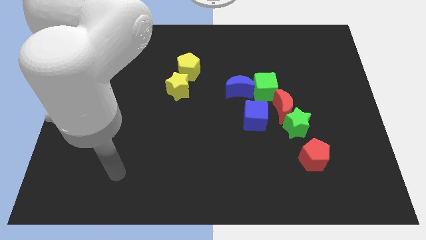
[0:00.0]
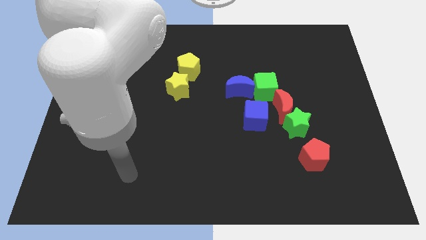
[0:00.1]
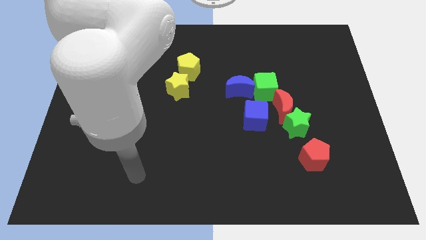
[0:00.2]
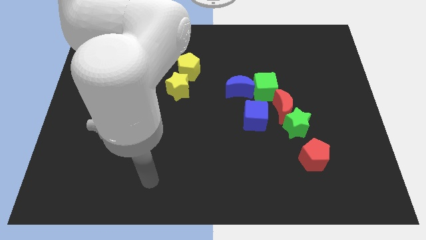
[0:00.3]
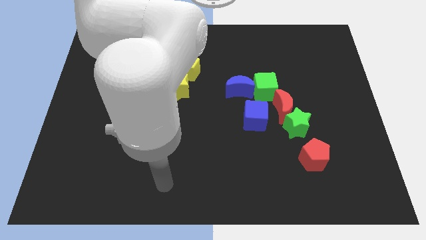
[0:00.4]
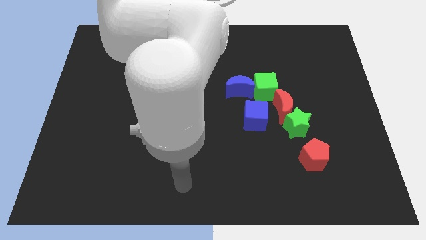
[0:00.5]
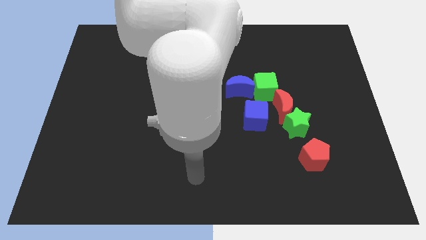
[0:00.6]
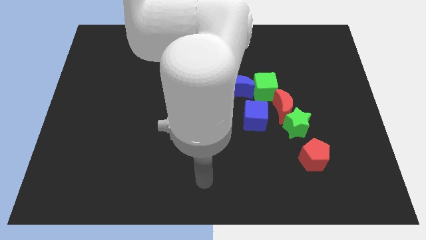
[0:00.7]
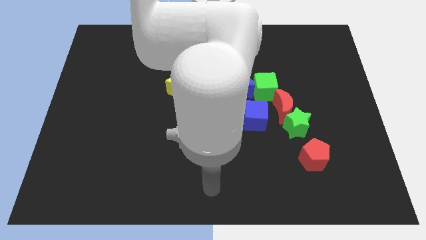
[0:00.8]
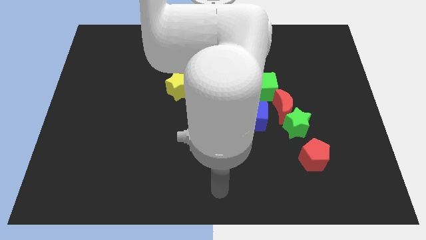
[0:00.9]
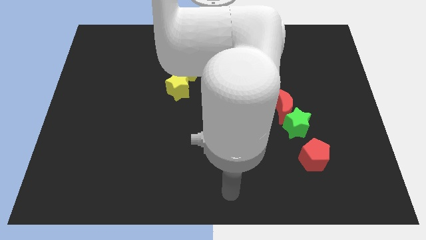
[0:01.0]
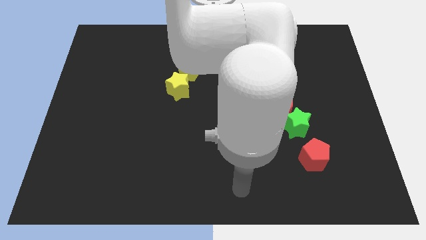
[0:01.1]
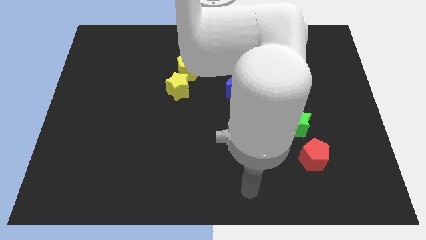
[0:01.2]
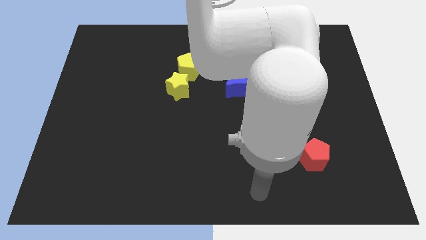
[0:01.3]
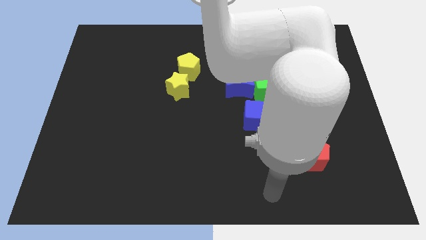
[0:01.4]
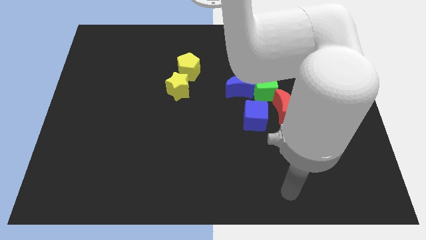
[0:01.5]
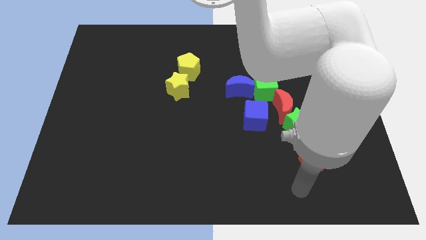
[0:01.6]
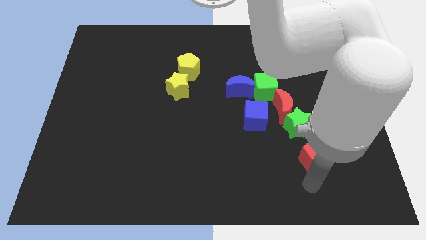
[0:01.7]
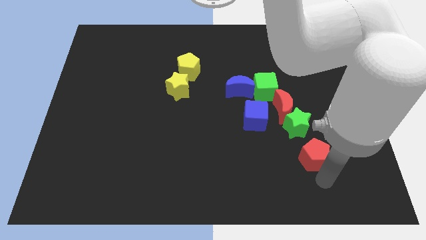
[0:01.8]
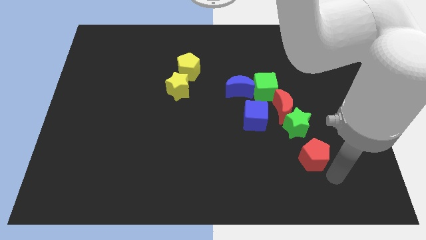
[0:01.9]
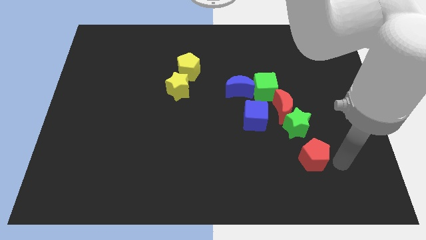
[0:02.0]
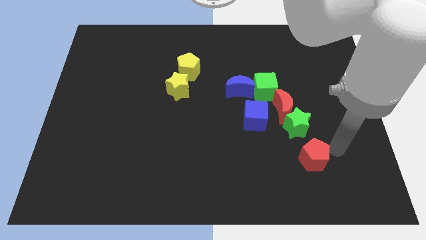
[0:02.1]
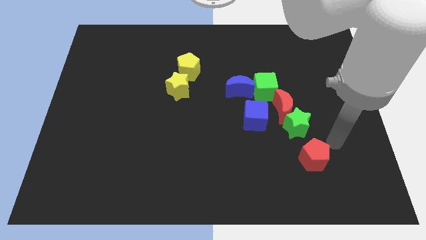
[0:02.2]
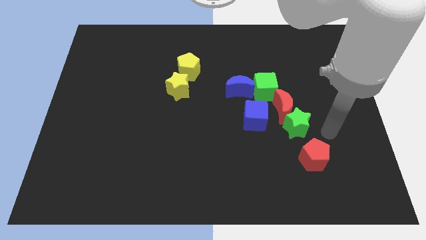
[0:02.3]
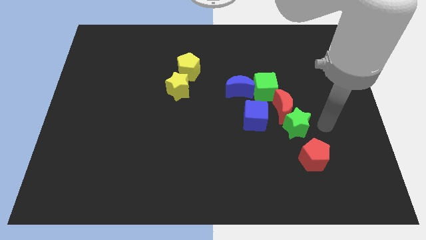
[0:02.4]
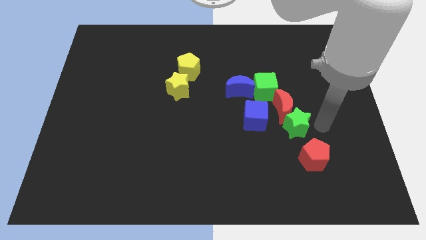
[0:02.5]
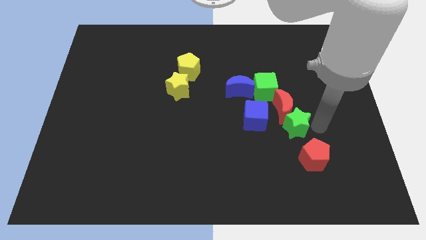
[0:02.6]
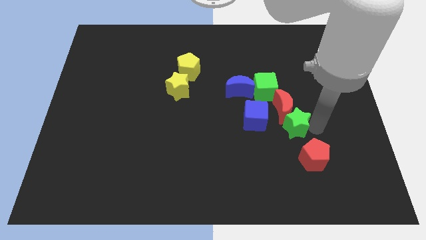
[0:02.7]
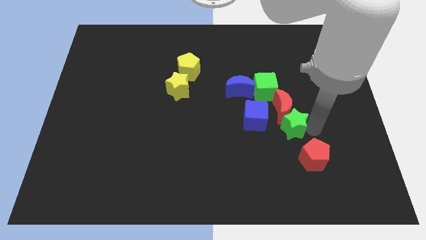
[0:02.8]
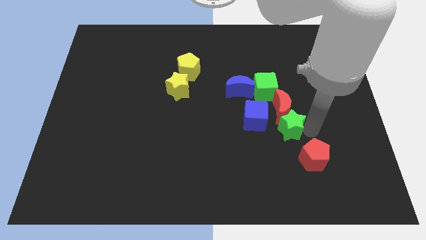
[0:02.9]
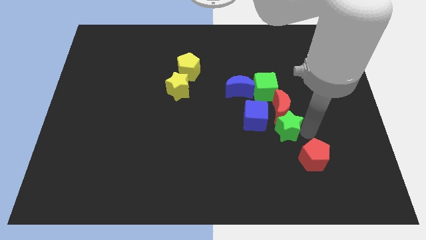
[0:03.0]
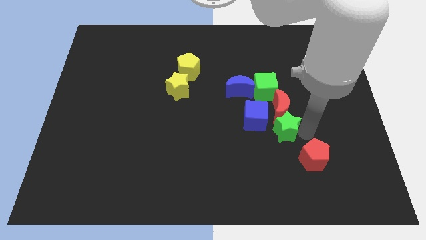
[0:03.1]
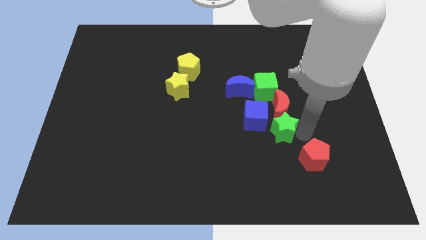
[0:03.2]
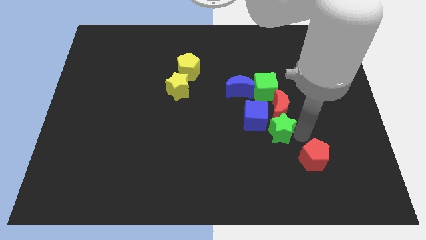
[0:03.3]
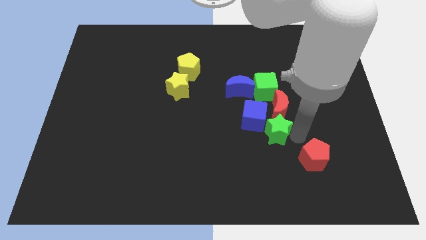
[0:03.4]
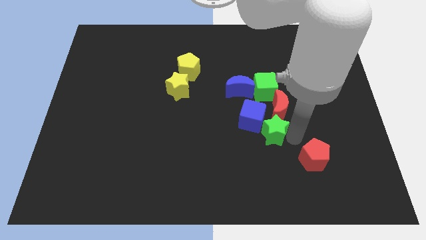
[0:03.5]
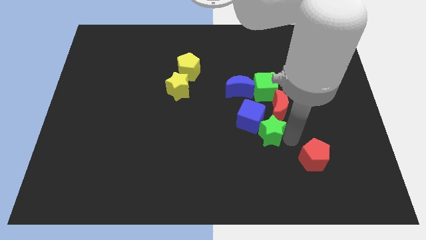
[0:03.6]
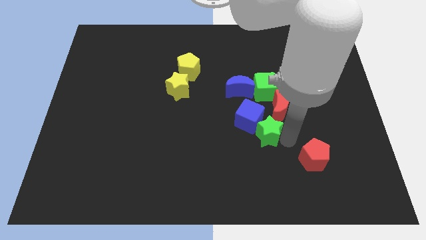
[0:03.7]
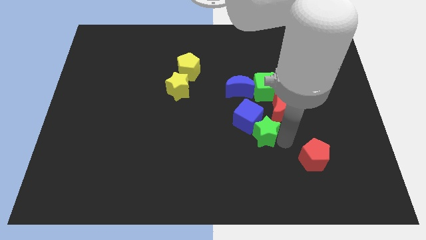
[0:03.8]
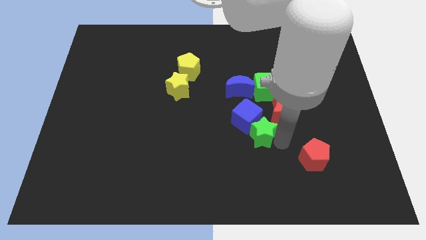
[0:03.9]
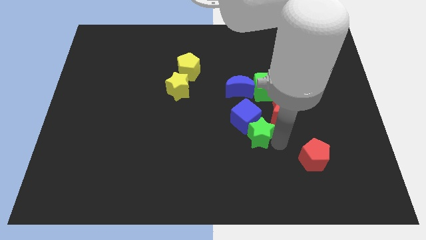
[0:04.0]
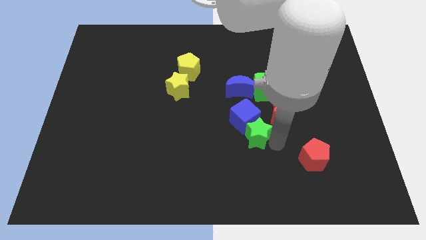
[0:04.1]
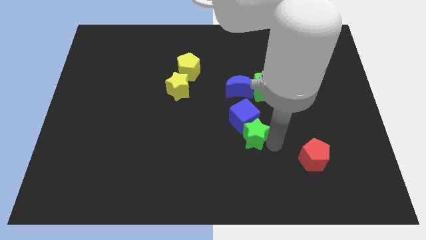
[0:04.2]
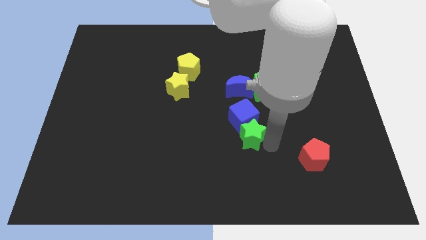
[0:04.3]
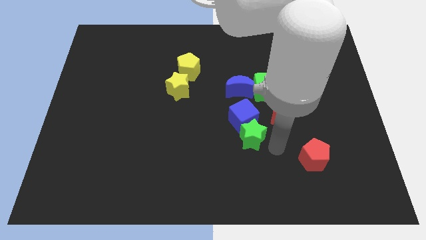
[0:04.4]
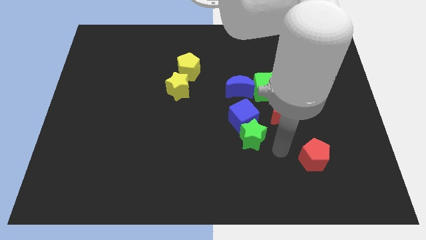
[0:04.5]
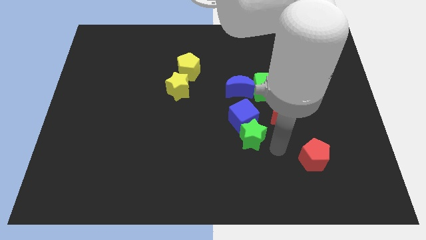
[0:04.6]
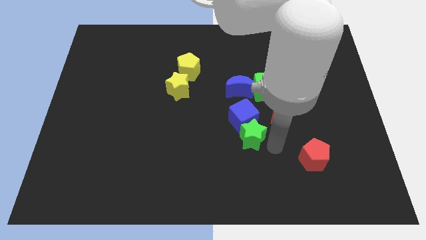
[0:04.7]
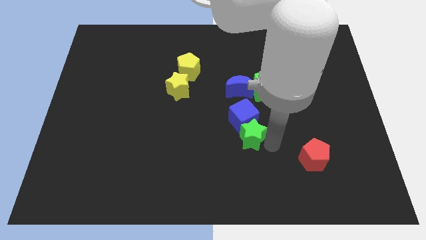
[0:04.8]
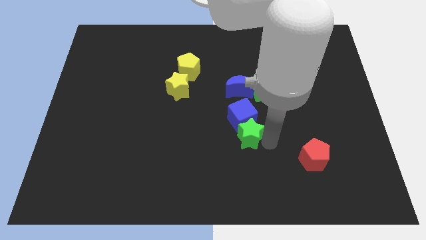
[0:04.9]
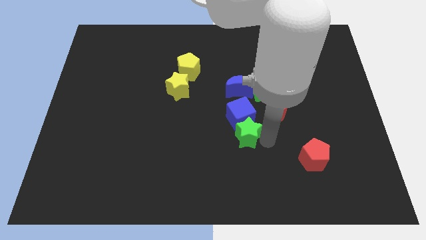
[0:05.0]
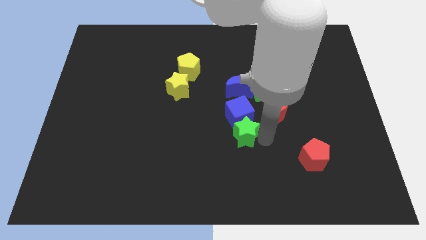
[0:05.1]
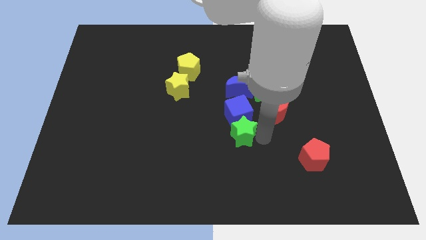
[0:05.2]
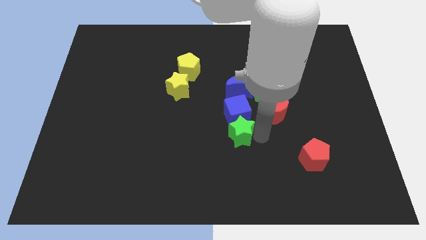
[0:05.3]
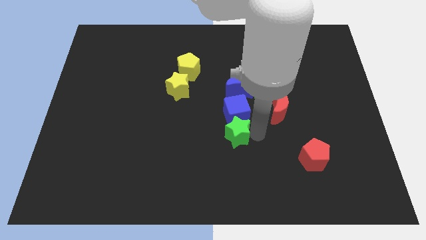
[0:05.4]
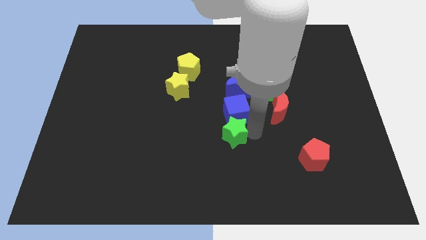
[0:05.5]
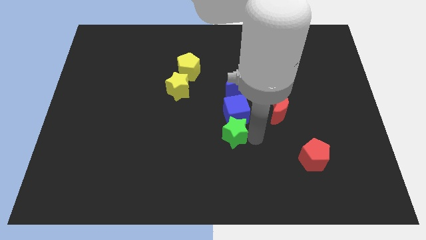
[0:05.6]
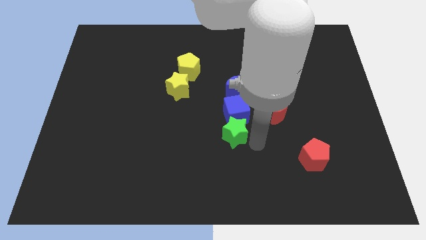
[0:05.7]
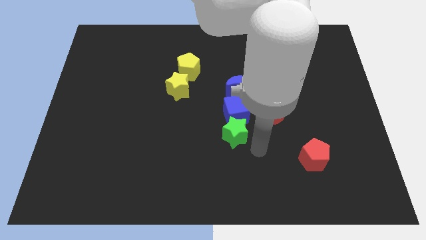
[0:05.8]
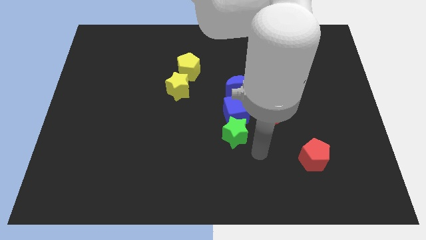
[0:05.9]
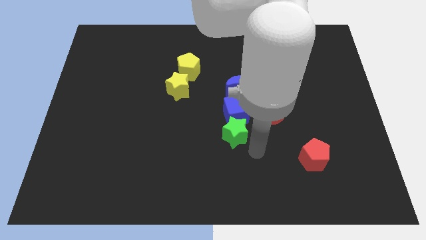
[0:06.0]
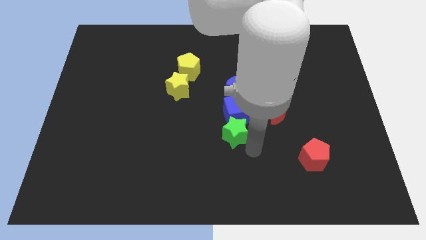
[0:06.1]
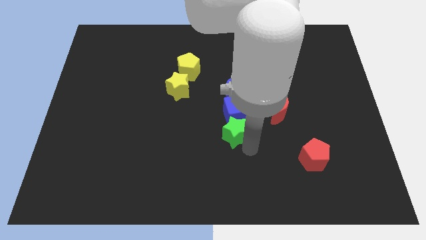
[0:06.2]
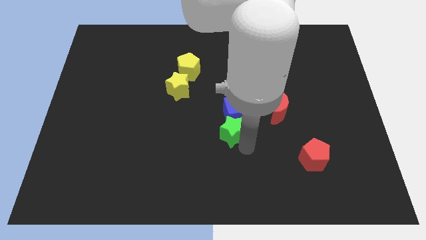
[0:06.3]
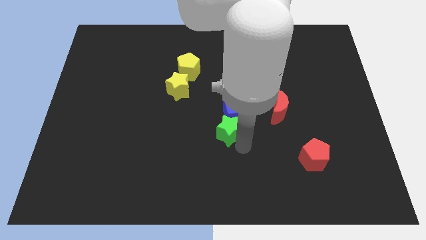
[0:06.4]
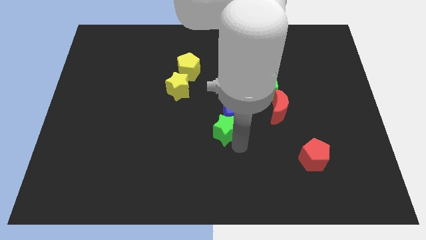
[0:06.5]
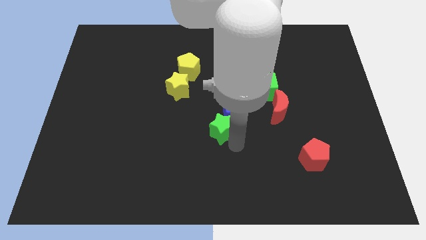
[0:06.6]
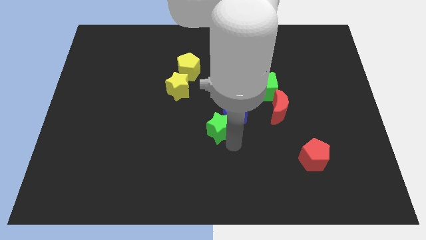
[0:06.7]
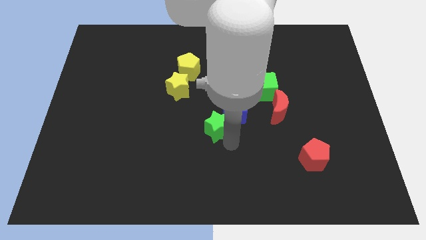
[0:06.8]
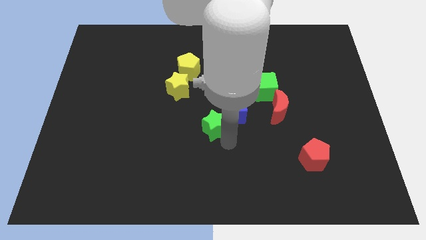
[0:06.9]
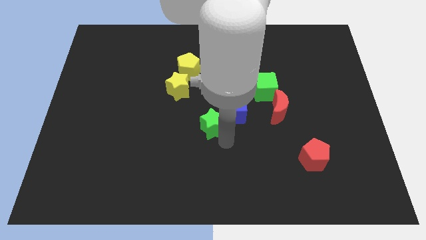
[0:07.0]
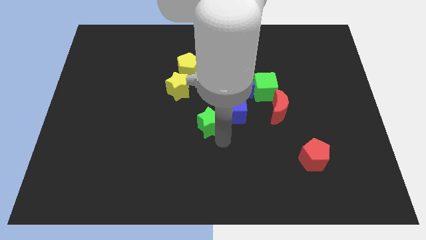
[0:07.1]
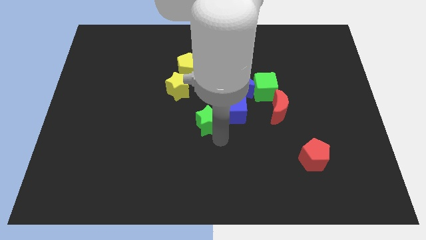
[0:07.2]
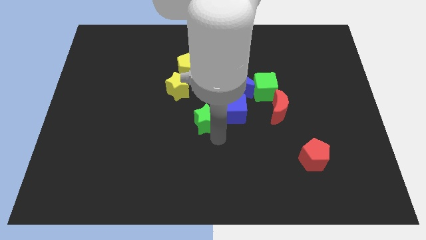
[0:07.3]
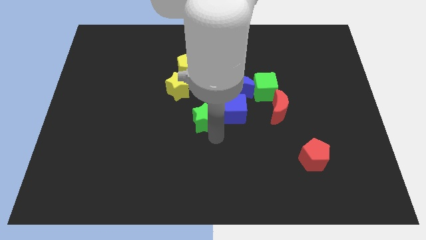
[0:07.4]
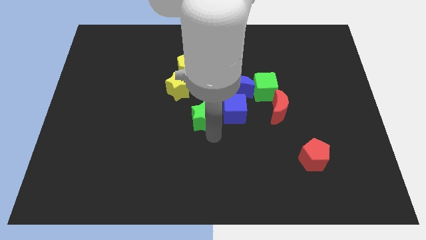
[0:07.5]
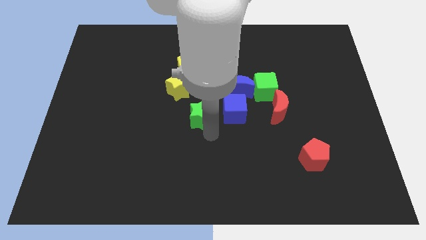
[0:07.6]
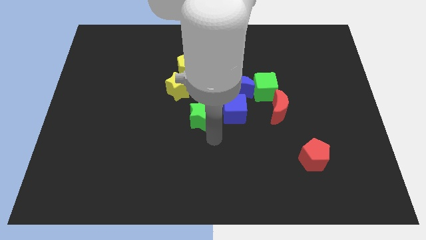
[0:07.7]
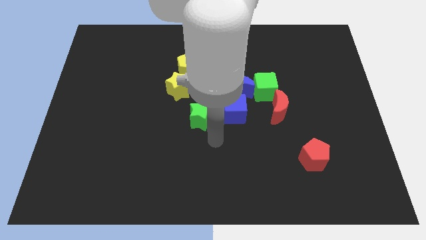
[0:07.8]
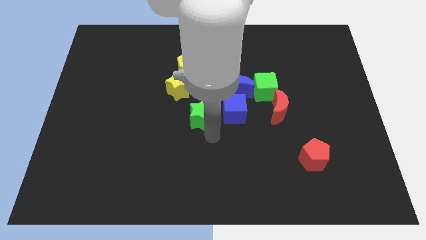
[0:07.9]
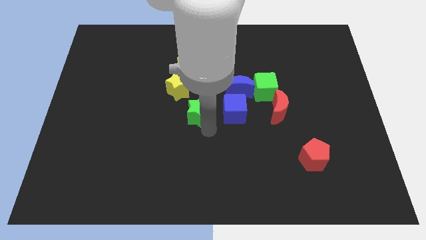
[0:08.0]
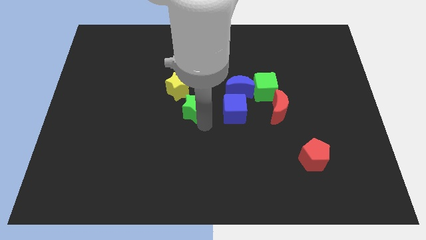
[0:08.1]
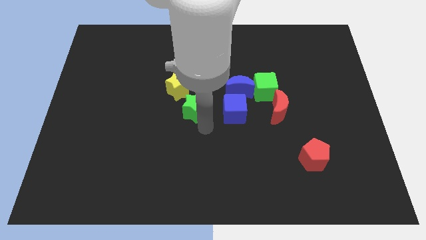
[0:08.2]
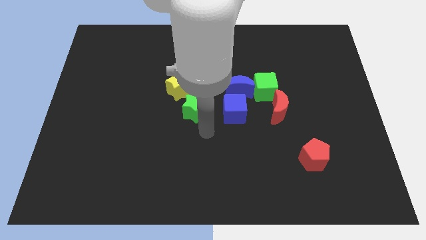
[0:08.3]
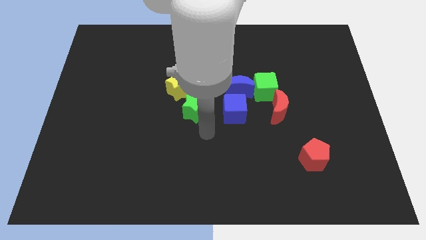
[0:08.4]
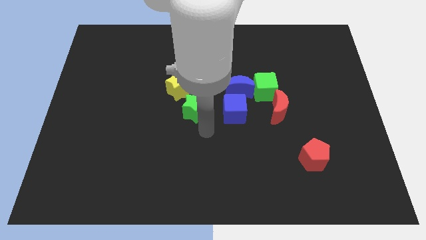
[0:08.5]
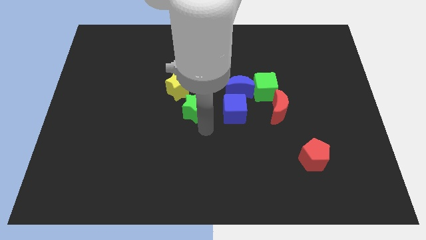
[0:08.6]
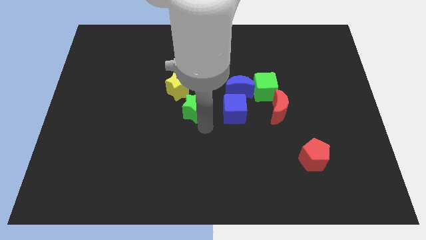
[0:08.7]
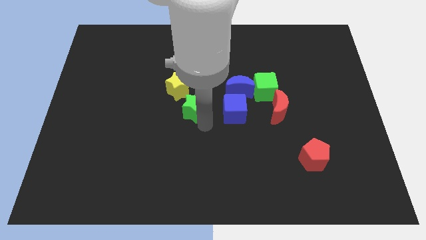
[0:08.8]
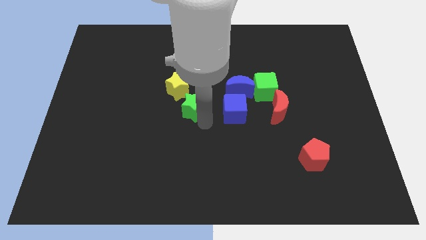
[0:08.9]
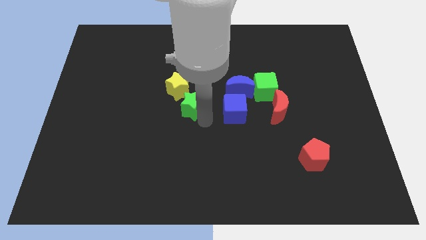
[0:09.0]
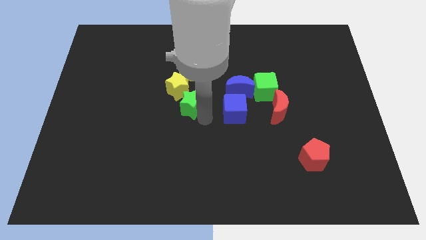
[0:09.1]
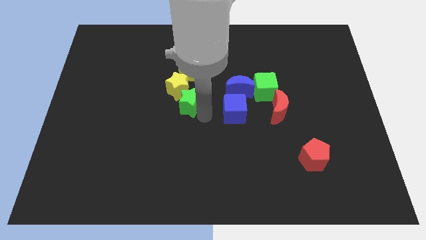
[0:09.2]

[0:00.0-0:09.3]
put the green star to the yellow star
